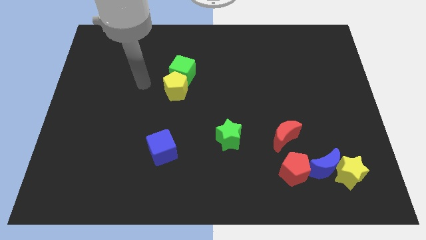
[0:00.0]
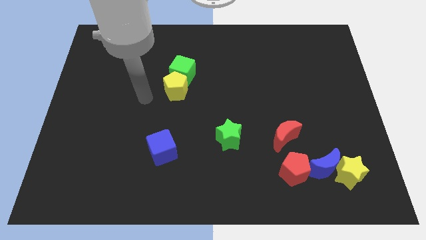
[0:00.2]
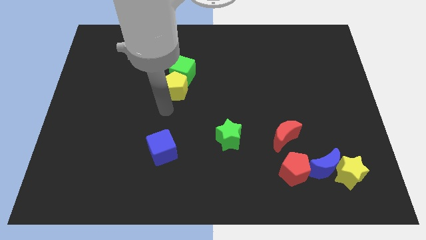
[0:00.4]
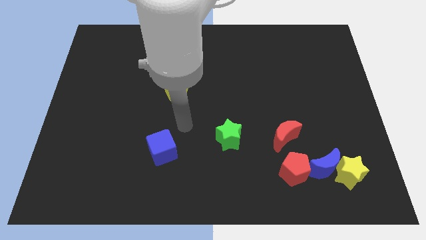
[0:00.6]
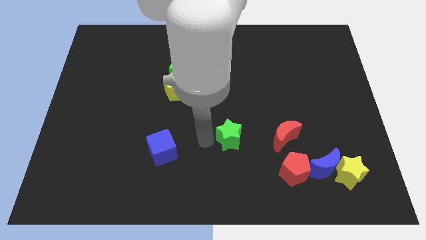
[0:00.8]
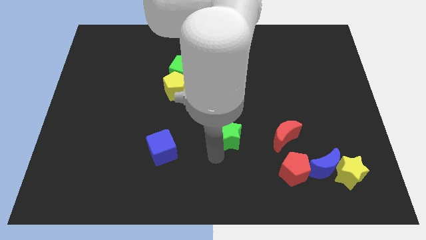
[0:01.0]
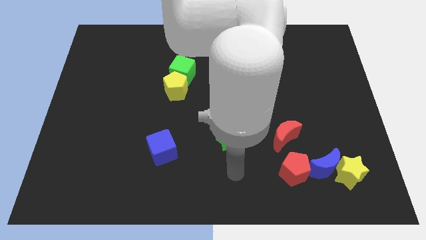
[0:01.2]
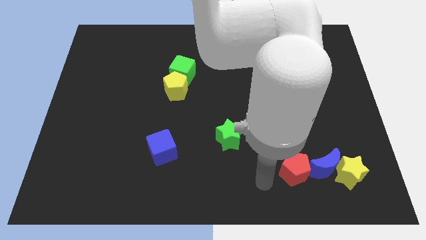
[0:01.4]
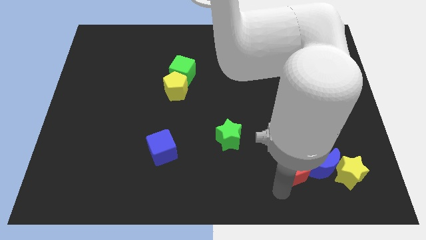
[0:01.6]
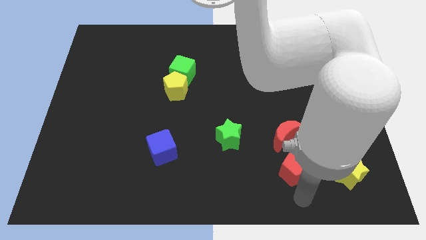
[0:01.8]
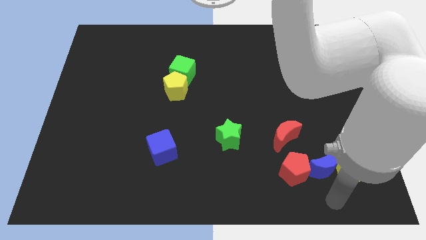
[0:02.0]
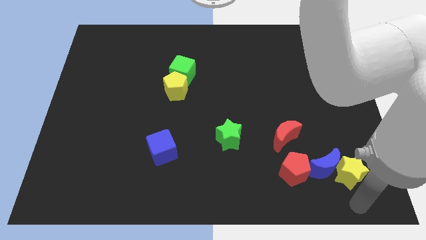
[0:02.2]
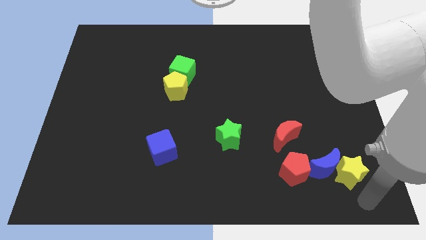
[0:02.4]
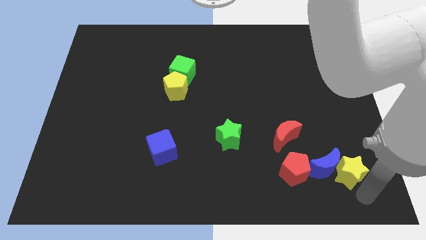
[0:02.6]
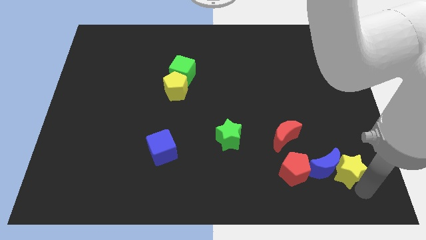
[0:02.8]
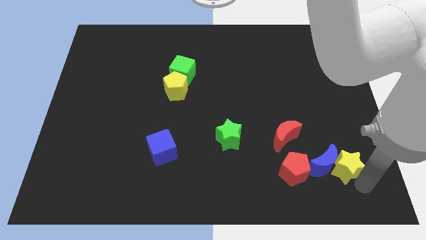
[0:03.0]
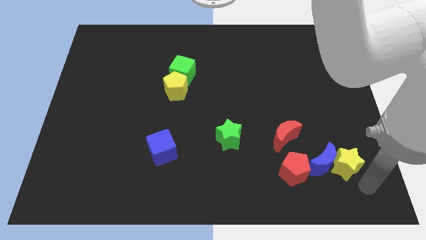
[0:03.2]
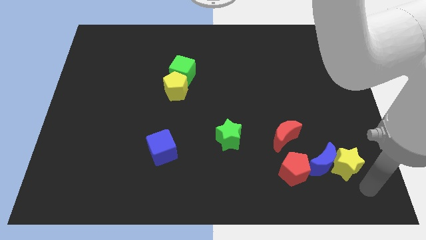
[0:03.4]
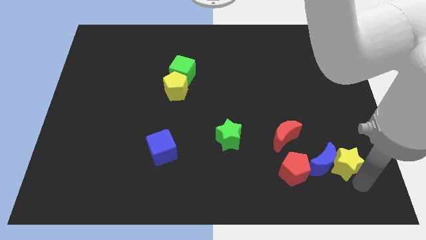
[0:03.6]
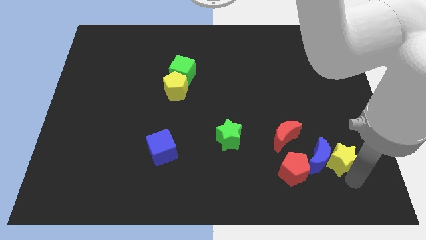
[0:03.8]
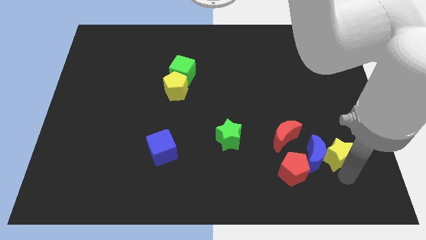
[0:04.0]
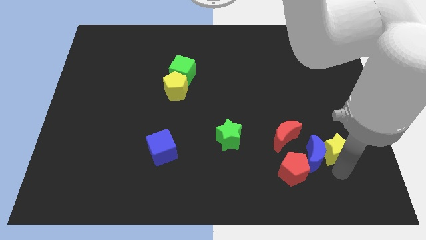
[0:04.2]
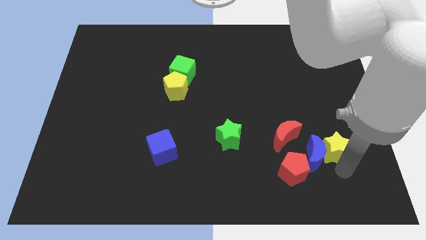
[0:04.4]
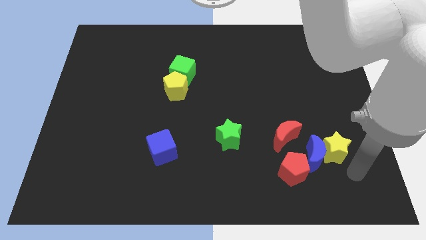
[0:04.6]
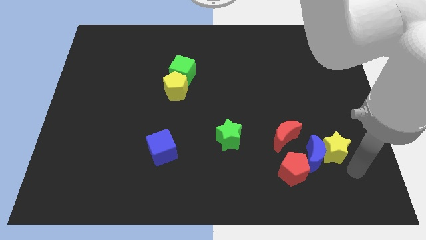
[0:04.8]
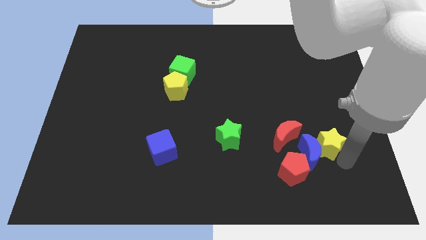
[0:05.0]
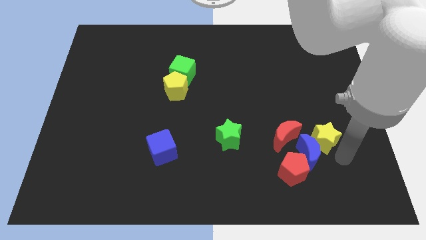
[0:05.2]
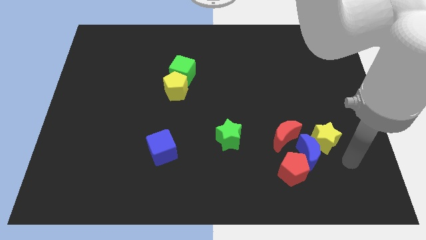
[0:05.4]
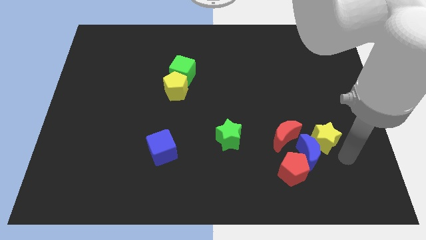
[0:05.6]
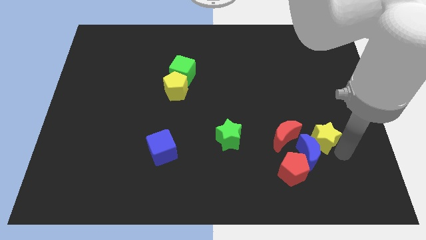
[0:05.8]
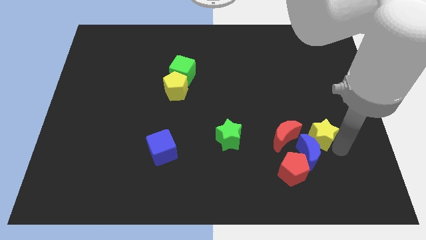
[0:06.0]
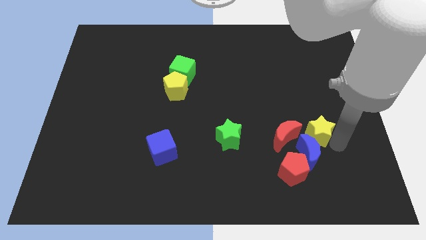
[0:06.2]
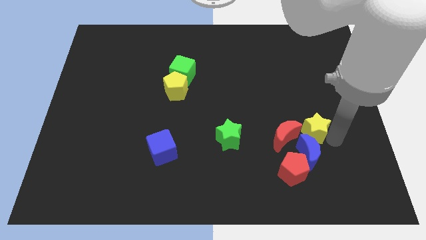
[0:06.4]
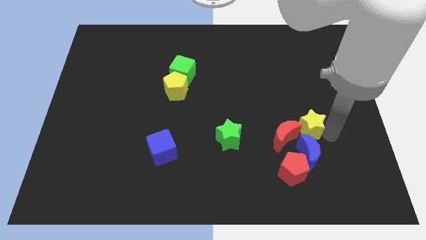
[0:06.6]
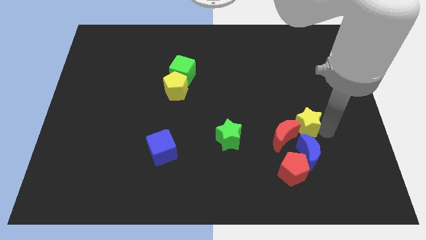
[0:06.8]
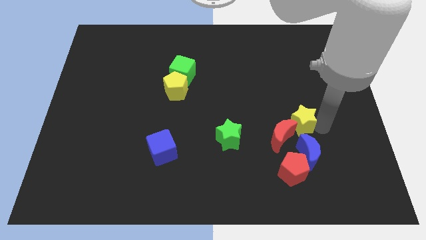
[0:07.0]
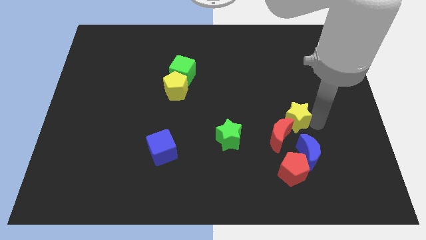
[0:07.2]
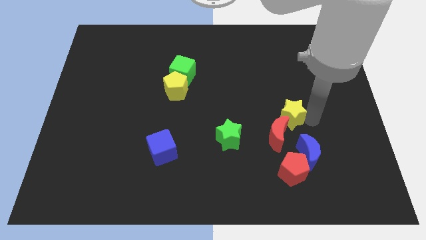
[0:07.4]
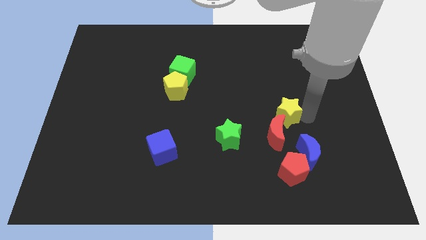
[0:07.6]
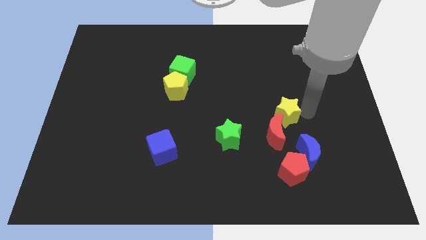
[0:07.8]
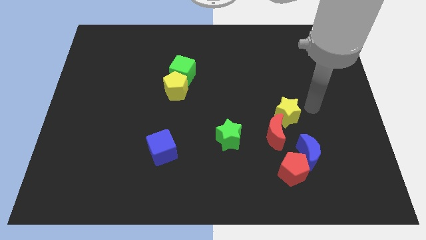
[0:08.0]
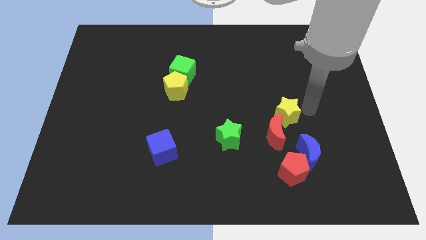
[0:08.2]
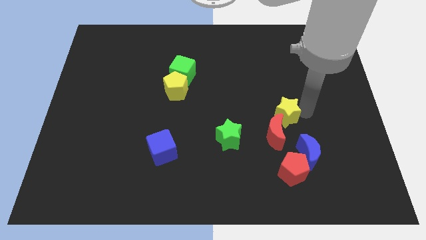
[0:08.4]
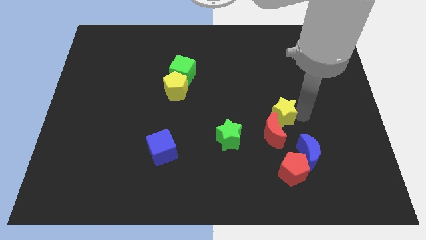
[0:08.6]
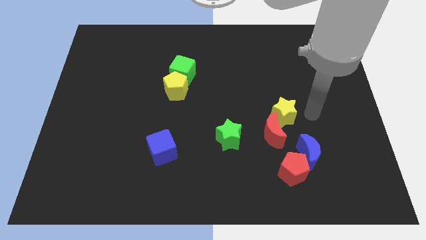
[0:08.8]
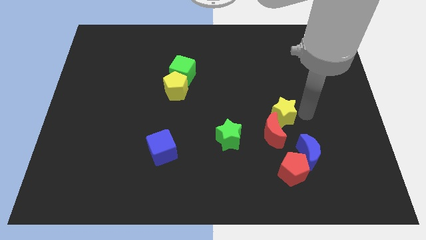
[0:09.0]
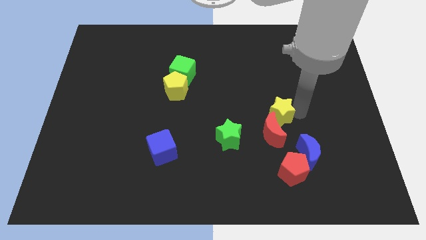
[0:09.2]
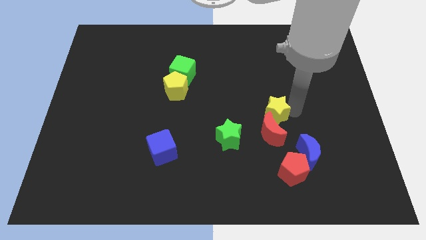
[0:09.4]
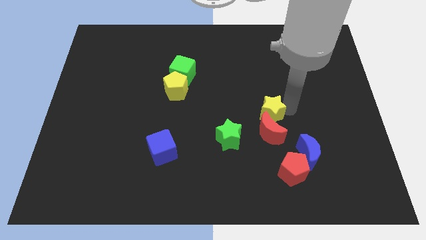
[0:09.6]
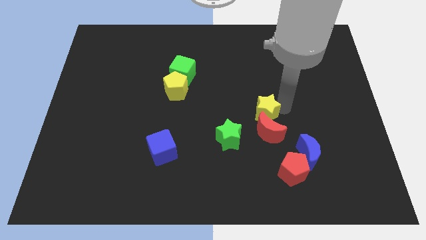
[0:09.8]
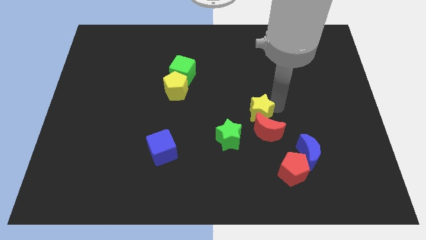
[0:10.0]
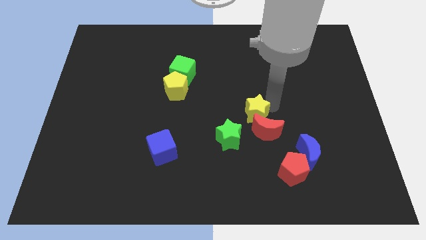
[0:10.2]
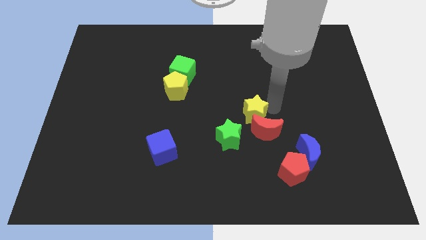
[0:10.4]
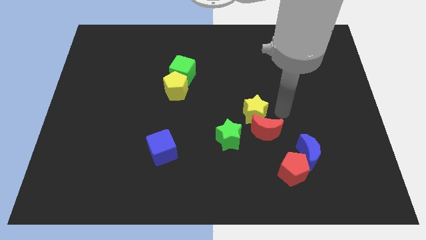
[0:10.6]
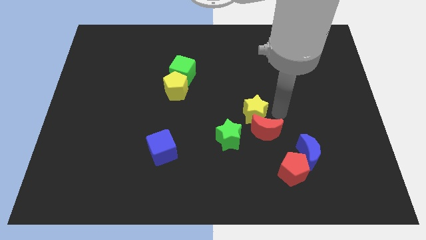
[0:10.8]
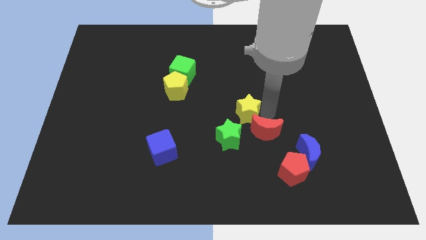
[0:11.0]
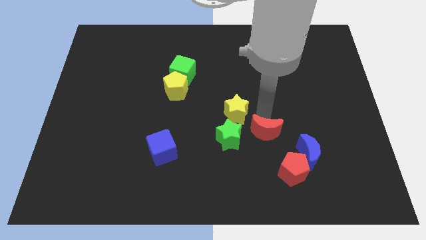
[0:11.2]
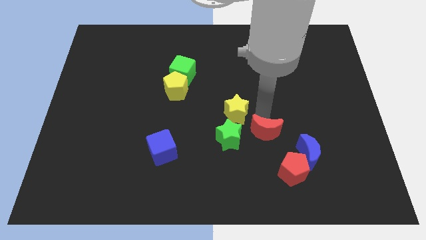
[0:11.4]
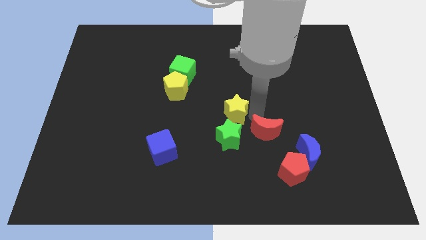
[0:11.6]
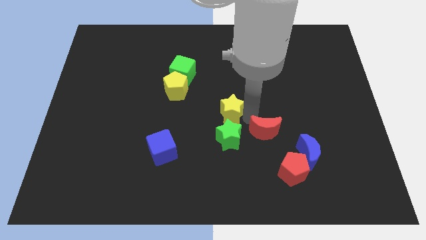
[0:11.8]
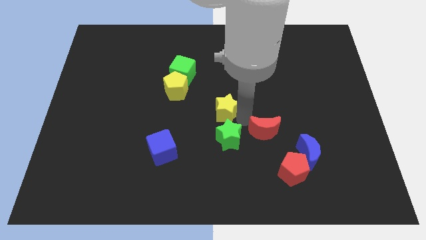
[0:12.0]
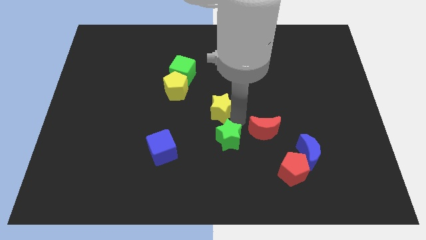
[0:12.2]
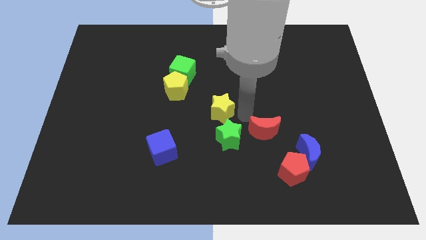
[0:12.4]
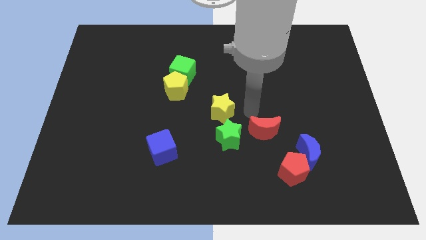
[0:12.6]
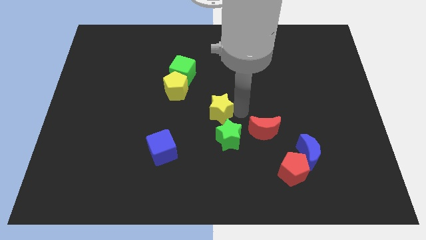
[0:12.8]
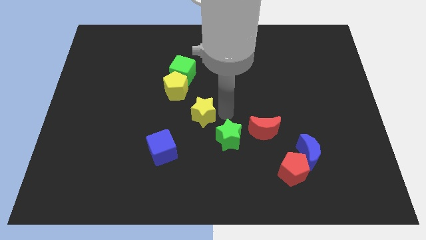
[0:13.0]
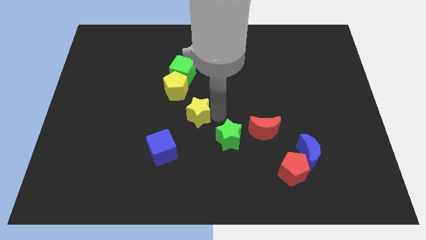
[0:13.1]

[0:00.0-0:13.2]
push the yellow star below the green cube
